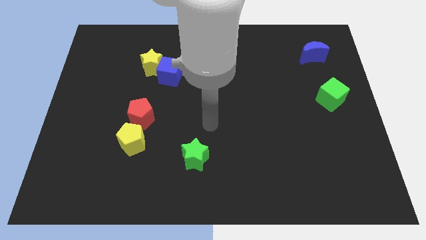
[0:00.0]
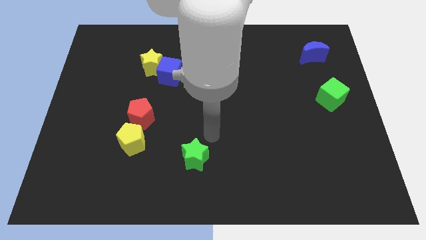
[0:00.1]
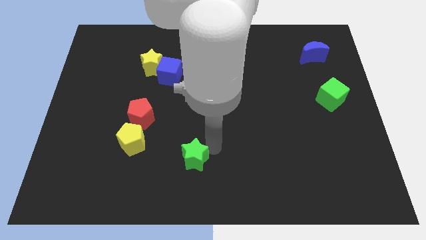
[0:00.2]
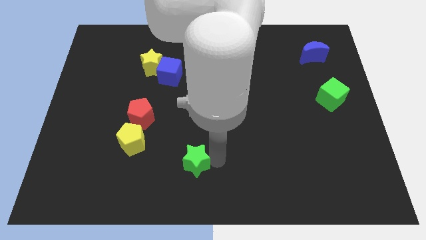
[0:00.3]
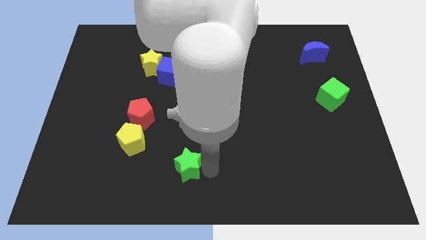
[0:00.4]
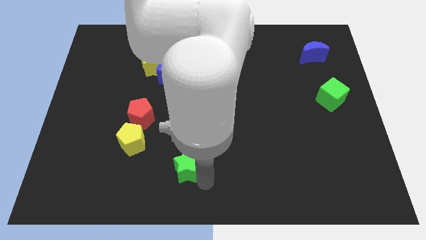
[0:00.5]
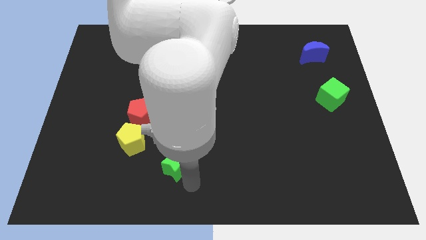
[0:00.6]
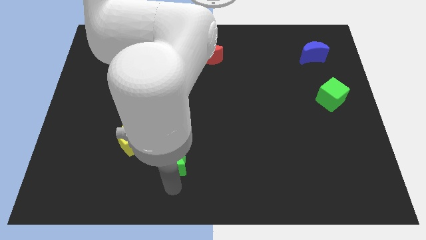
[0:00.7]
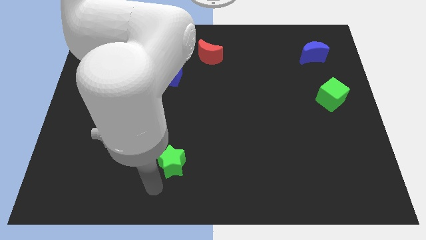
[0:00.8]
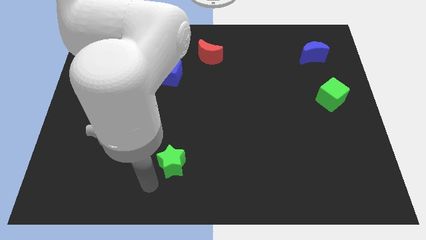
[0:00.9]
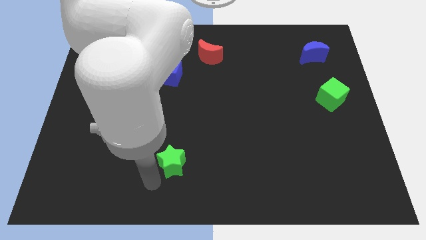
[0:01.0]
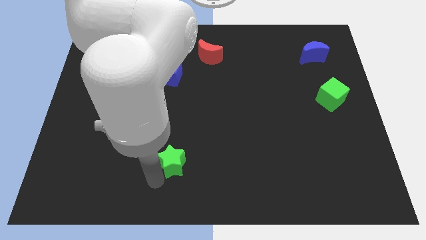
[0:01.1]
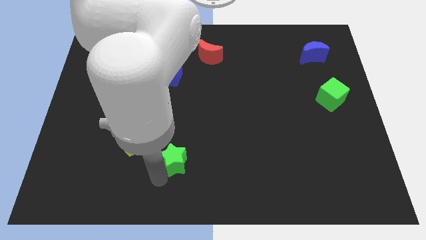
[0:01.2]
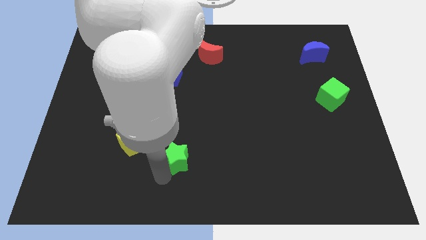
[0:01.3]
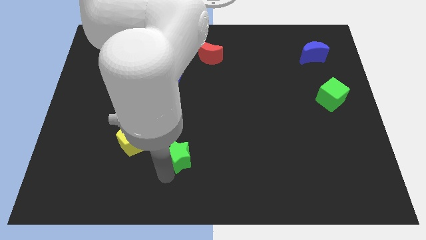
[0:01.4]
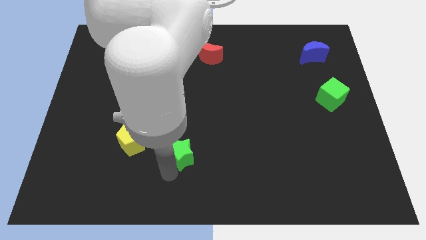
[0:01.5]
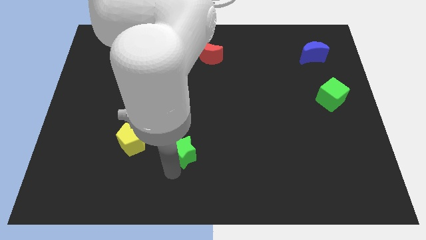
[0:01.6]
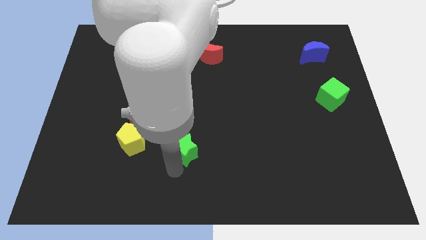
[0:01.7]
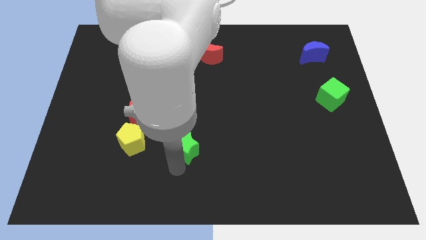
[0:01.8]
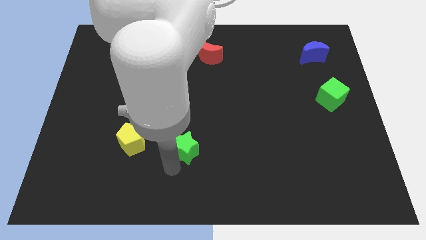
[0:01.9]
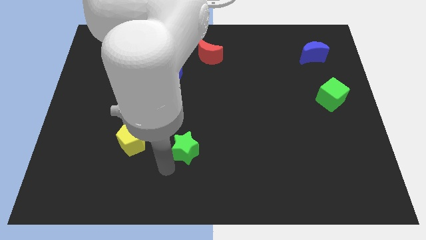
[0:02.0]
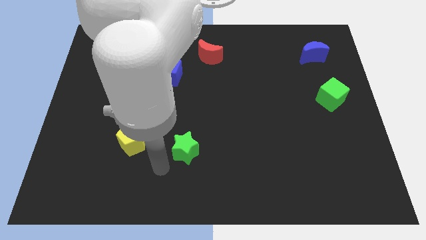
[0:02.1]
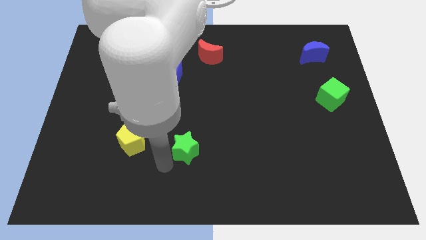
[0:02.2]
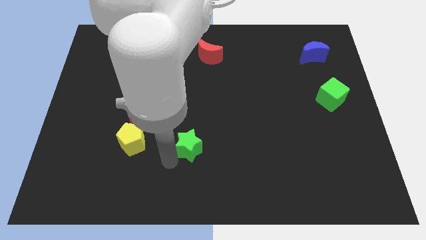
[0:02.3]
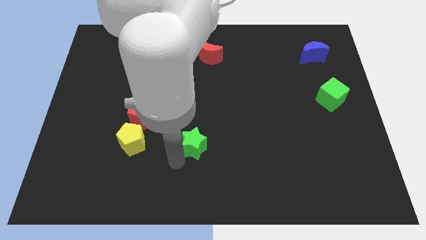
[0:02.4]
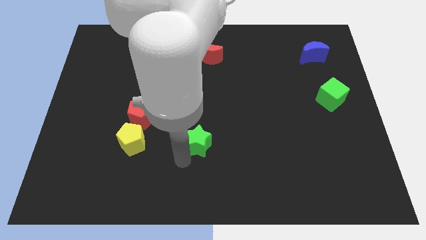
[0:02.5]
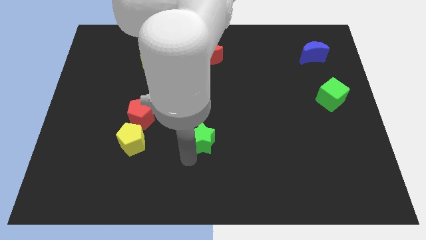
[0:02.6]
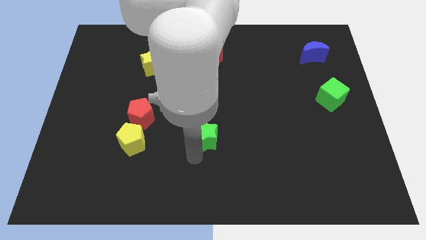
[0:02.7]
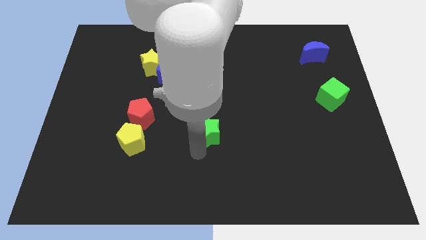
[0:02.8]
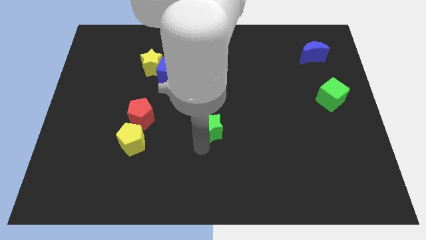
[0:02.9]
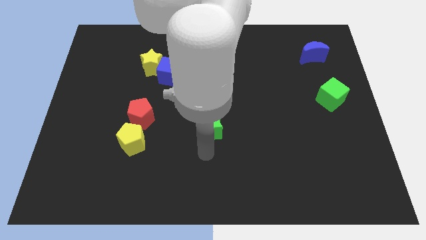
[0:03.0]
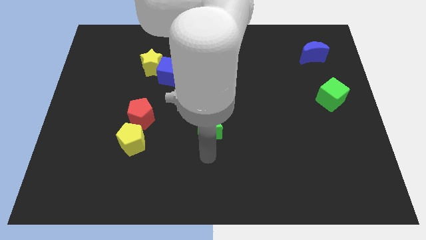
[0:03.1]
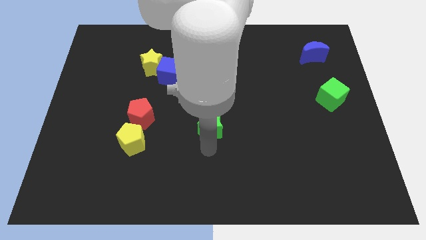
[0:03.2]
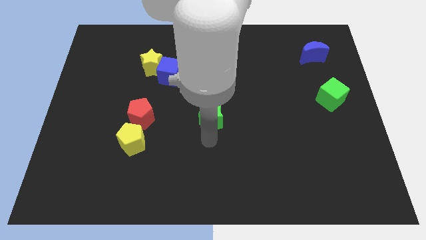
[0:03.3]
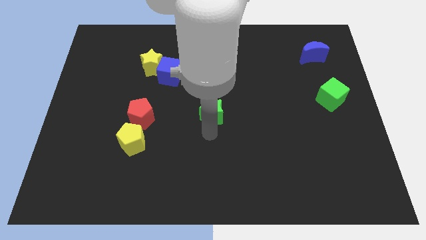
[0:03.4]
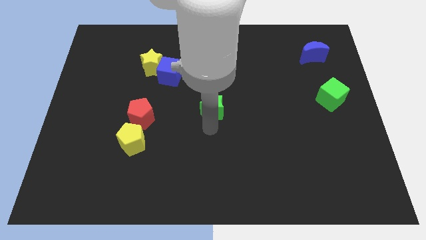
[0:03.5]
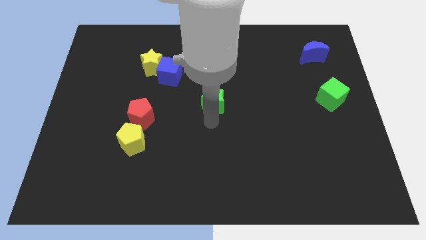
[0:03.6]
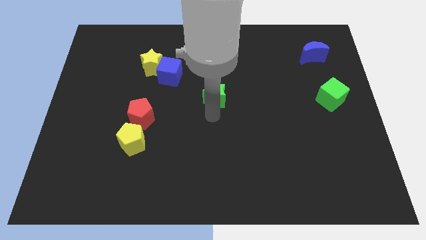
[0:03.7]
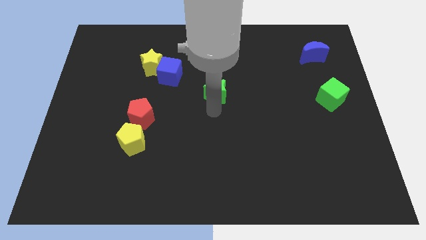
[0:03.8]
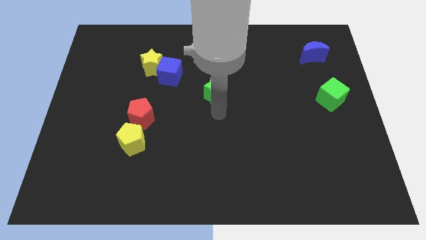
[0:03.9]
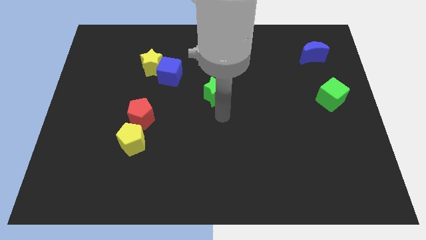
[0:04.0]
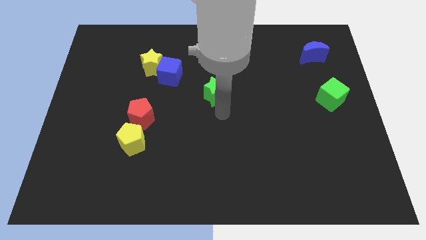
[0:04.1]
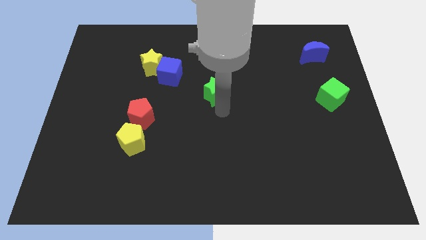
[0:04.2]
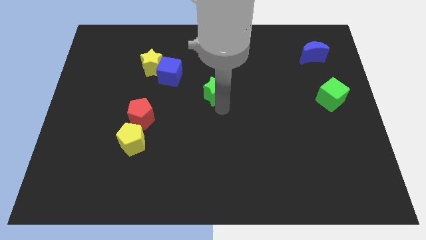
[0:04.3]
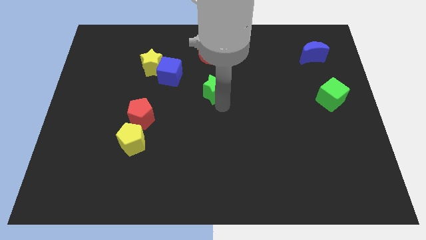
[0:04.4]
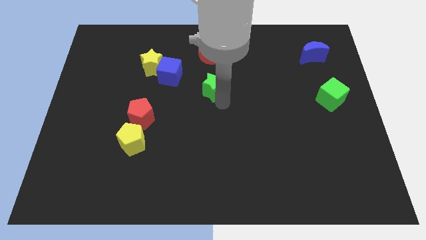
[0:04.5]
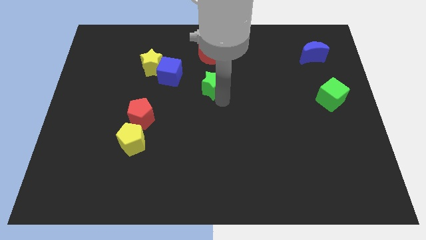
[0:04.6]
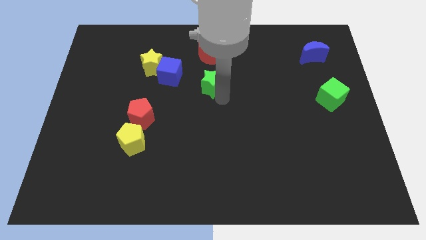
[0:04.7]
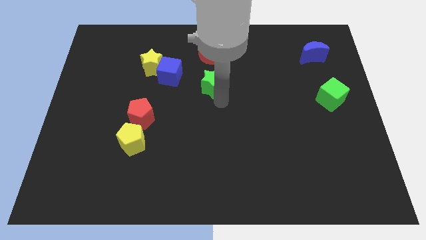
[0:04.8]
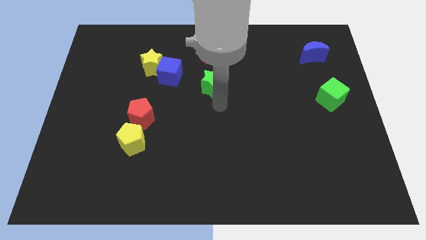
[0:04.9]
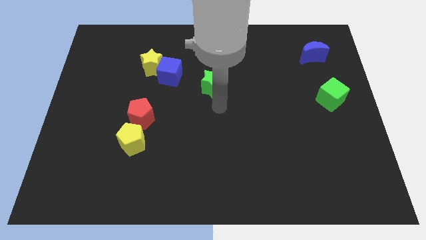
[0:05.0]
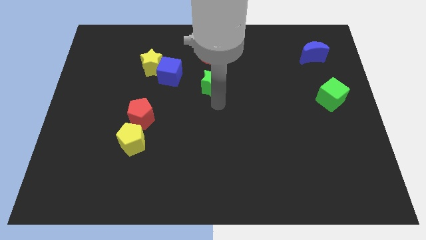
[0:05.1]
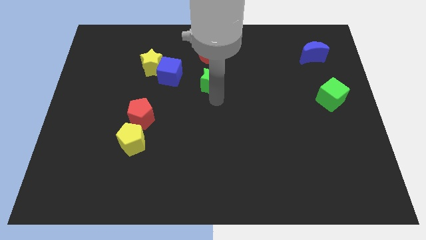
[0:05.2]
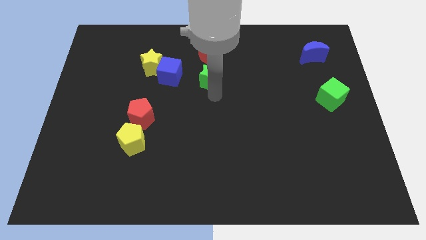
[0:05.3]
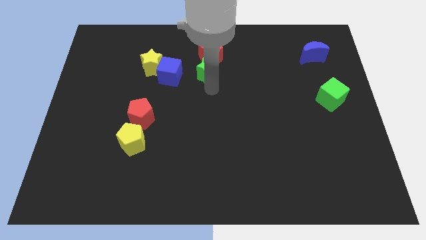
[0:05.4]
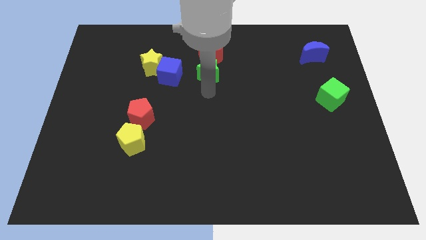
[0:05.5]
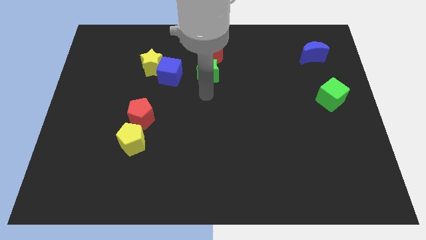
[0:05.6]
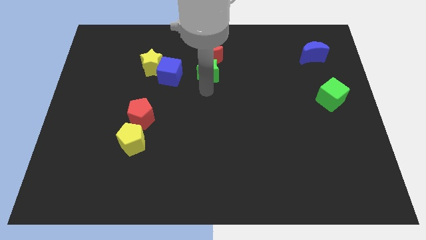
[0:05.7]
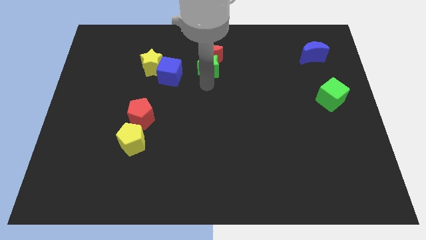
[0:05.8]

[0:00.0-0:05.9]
slide the green star towards the red moon
